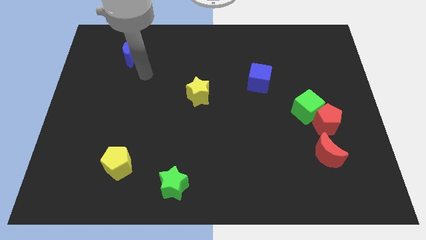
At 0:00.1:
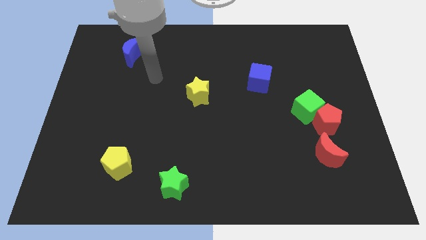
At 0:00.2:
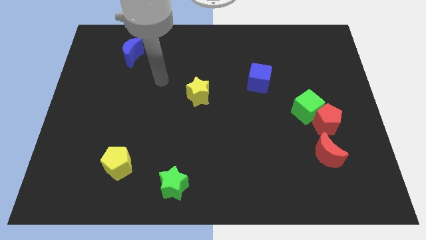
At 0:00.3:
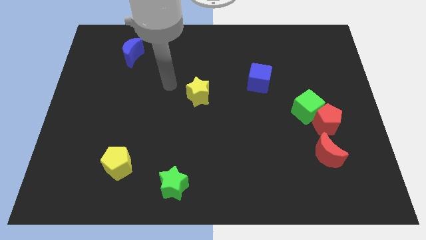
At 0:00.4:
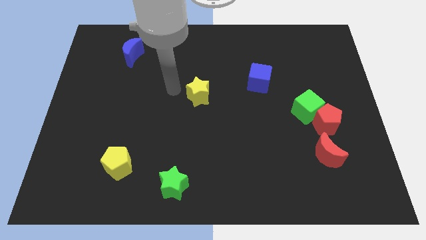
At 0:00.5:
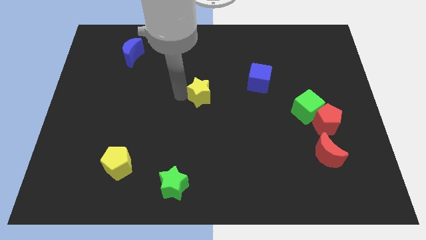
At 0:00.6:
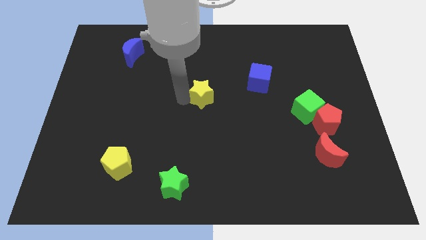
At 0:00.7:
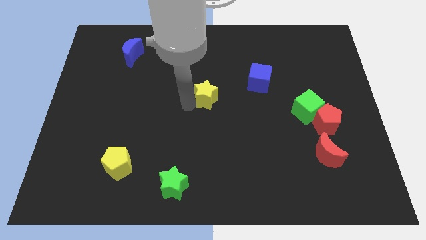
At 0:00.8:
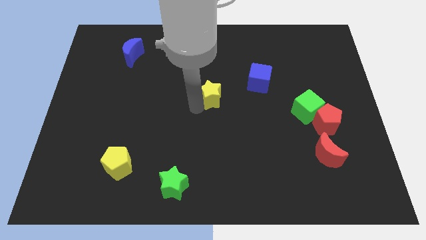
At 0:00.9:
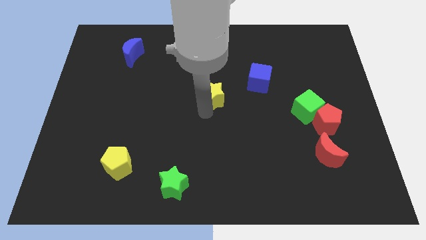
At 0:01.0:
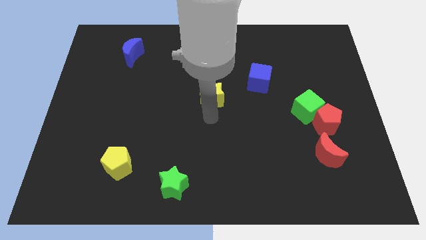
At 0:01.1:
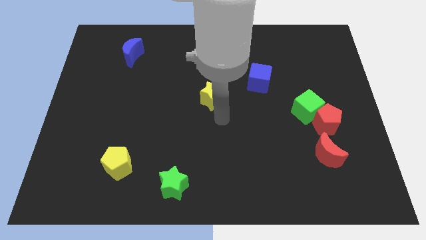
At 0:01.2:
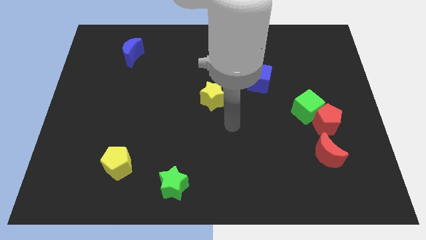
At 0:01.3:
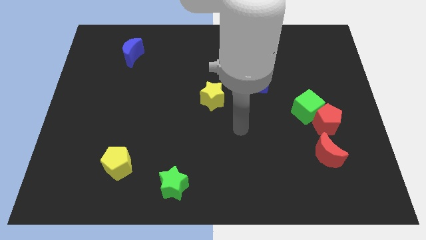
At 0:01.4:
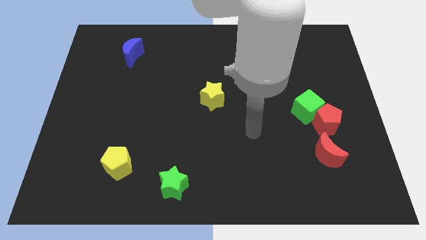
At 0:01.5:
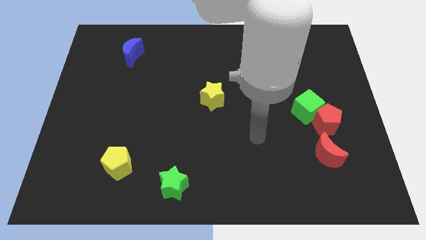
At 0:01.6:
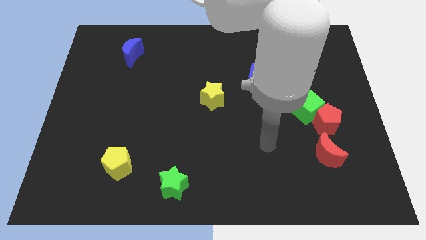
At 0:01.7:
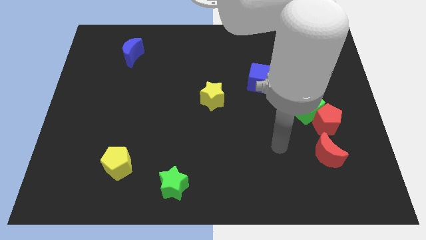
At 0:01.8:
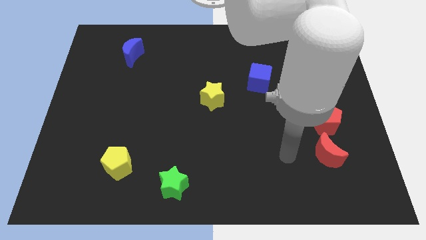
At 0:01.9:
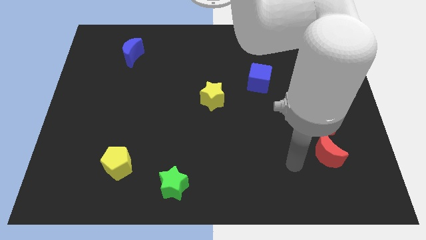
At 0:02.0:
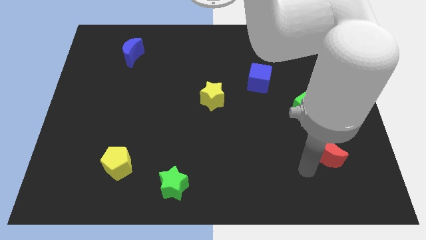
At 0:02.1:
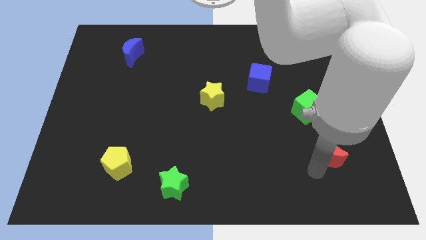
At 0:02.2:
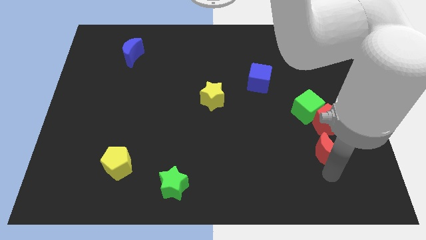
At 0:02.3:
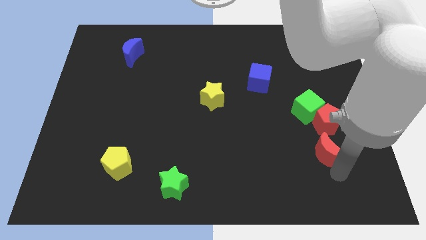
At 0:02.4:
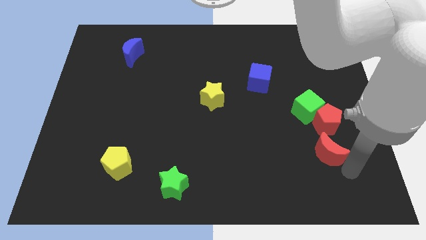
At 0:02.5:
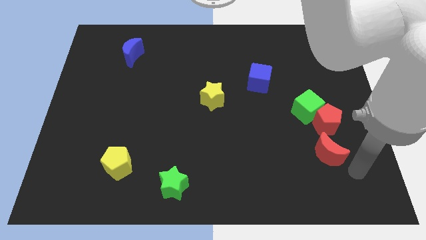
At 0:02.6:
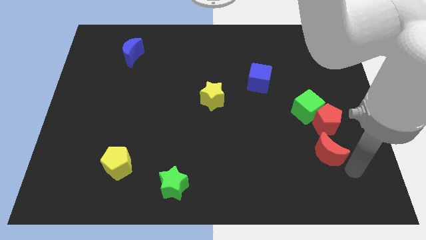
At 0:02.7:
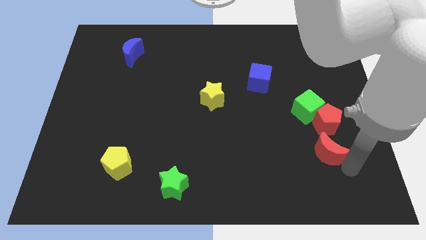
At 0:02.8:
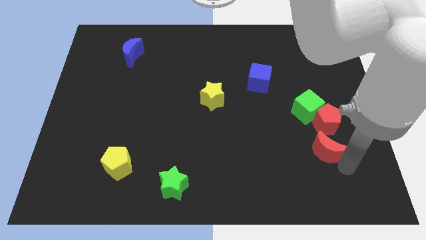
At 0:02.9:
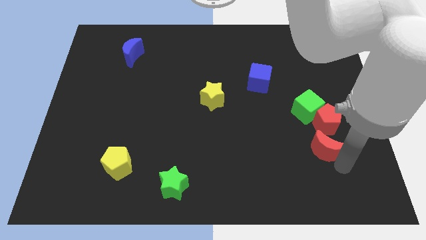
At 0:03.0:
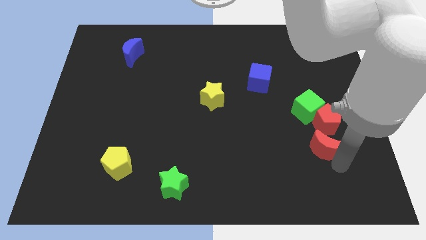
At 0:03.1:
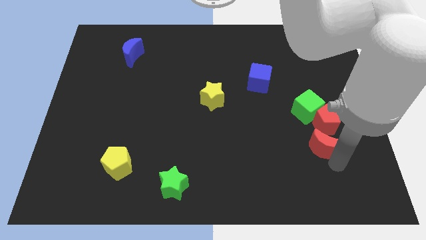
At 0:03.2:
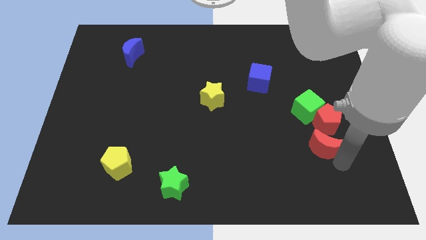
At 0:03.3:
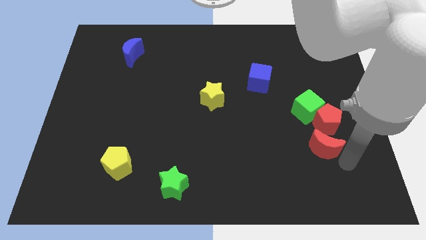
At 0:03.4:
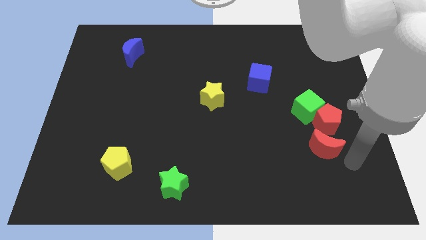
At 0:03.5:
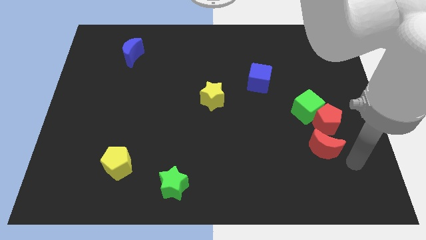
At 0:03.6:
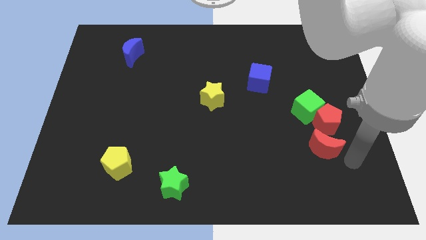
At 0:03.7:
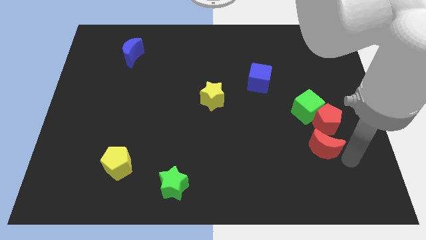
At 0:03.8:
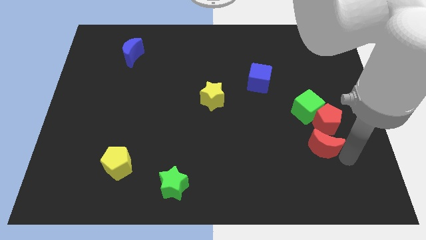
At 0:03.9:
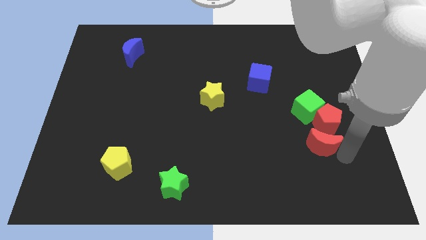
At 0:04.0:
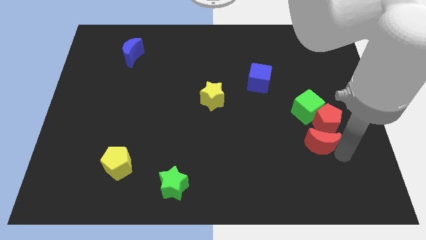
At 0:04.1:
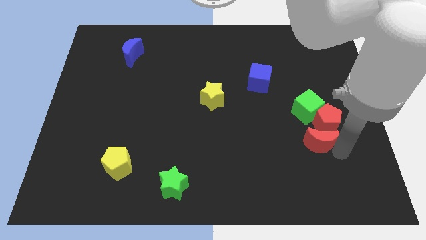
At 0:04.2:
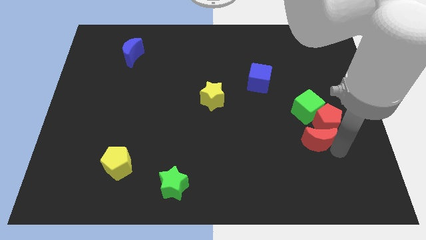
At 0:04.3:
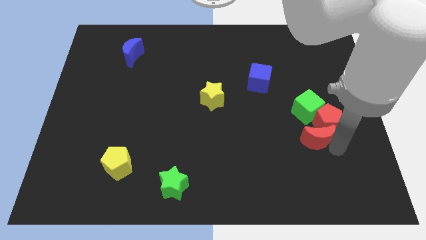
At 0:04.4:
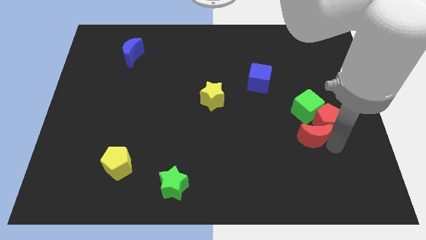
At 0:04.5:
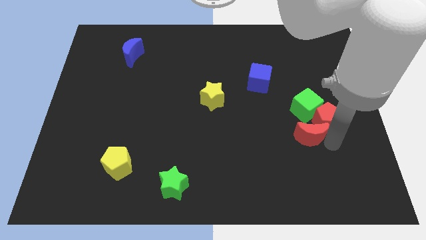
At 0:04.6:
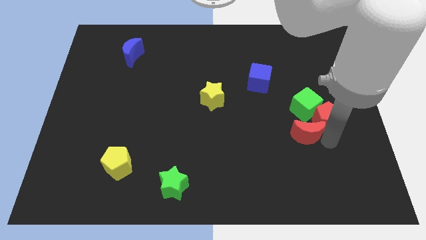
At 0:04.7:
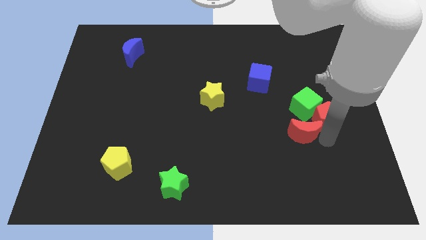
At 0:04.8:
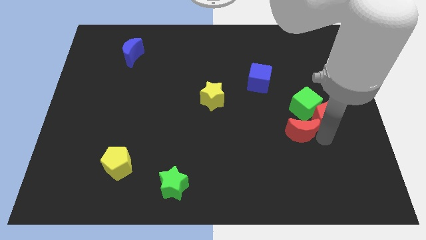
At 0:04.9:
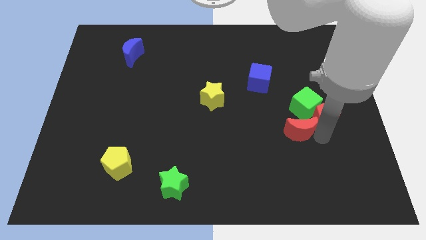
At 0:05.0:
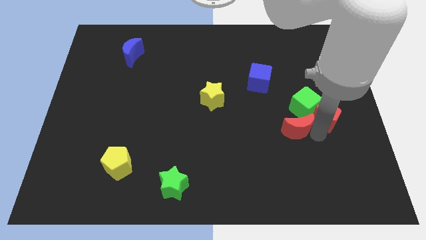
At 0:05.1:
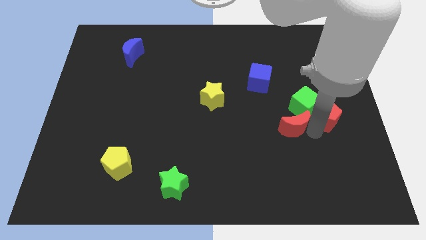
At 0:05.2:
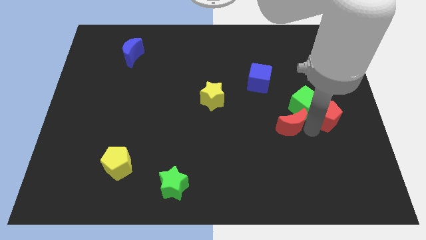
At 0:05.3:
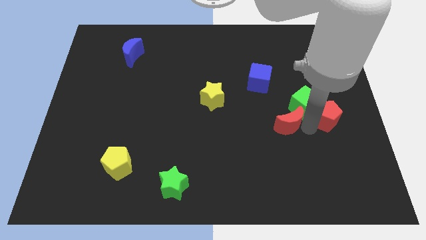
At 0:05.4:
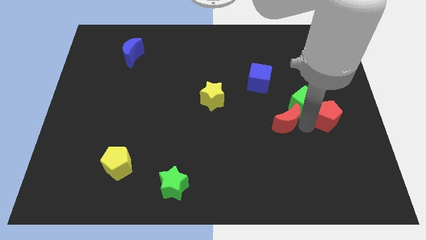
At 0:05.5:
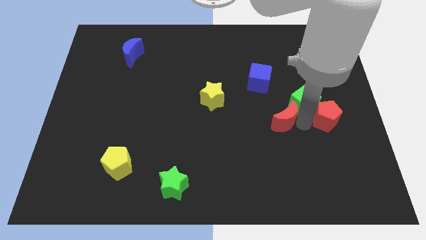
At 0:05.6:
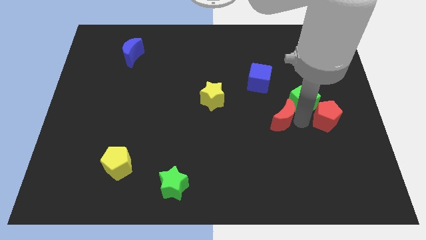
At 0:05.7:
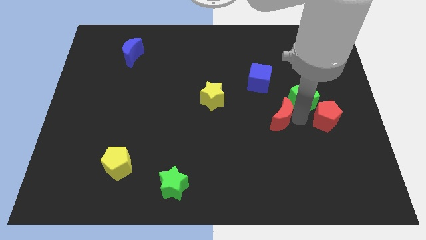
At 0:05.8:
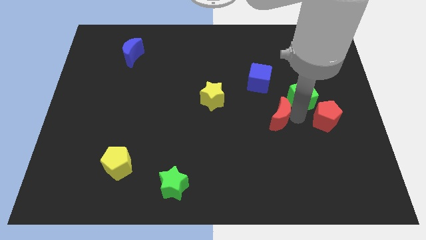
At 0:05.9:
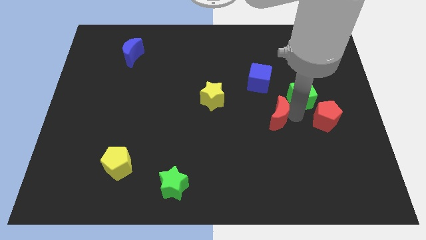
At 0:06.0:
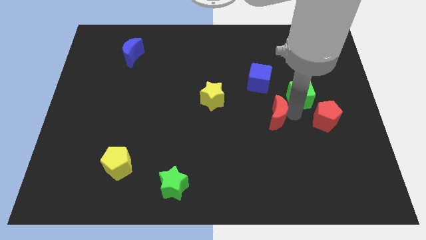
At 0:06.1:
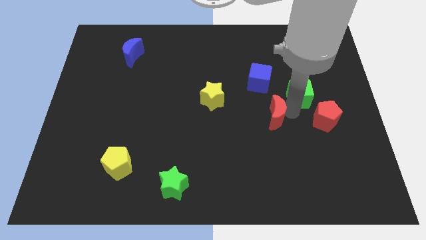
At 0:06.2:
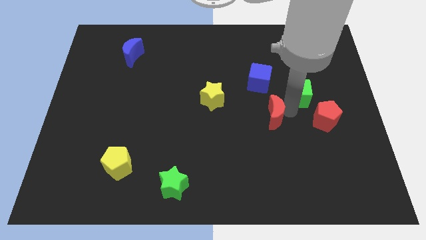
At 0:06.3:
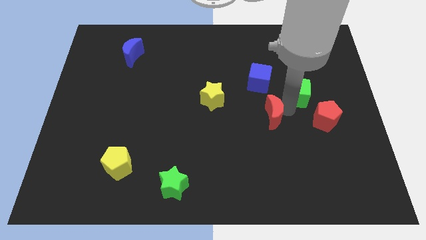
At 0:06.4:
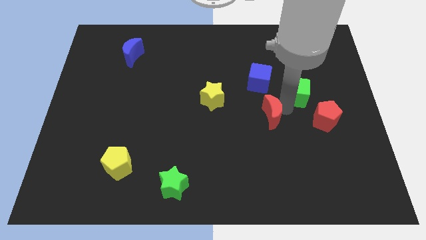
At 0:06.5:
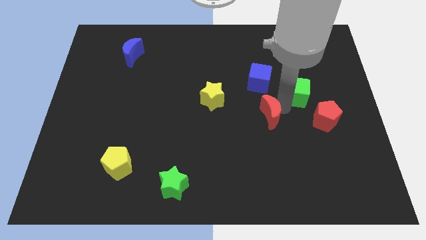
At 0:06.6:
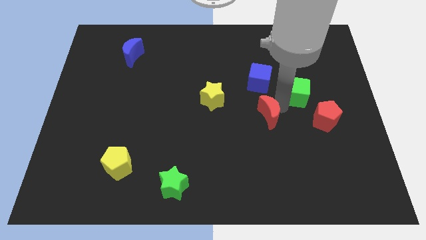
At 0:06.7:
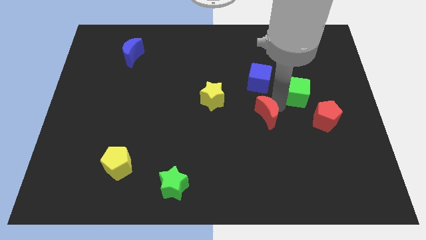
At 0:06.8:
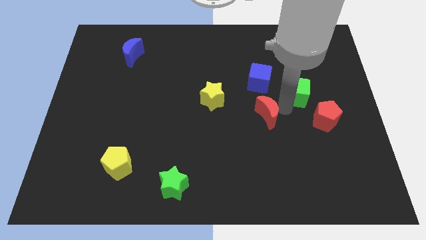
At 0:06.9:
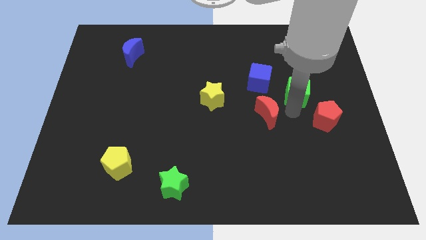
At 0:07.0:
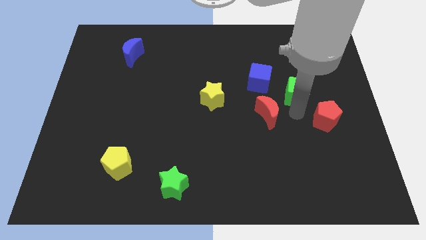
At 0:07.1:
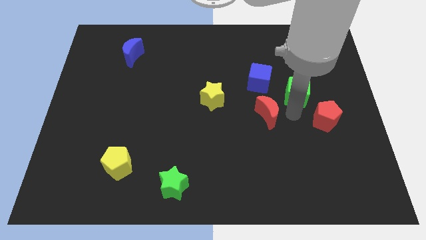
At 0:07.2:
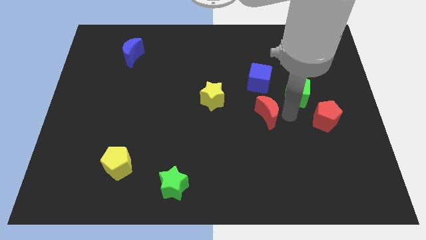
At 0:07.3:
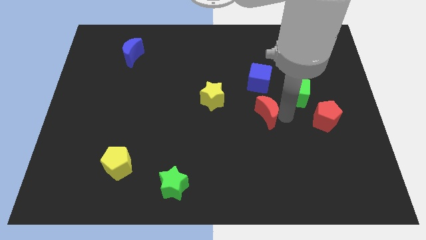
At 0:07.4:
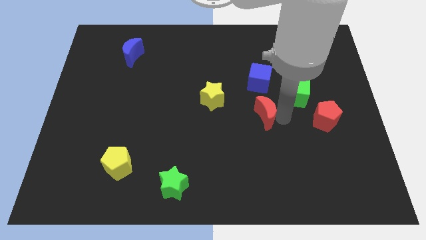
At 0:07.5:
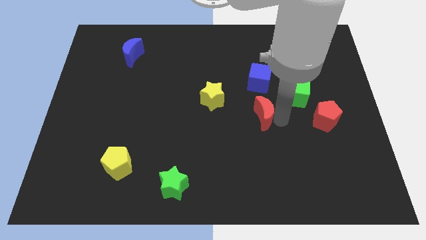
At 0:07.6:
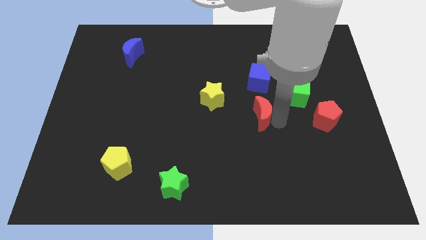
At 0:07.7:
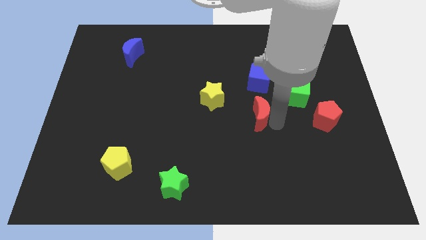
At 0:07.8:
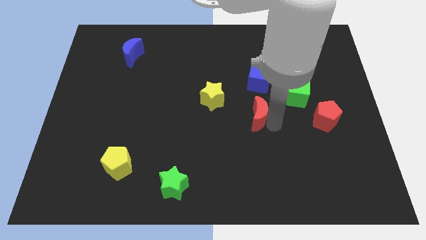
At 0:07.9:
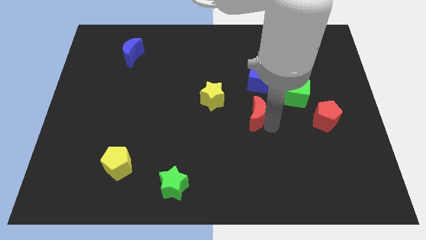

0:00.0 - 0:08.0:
put the red moon to the bottom right side of the yellow star
